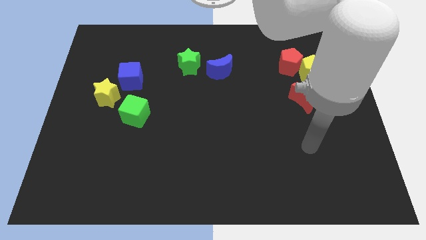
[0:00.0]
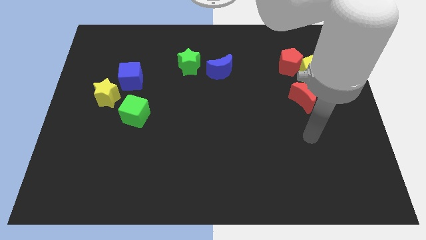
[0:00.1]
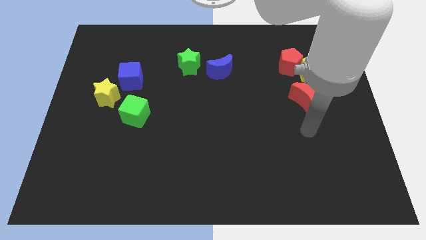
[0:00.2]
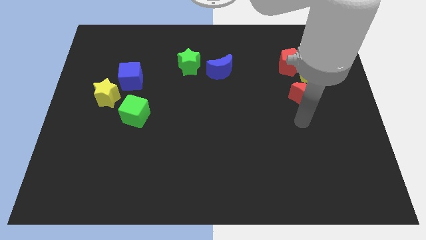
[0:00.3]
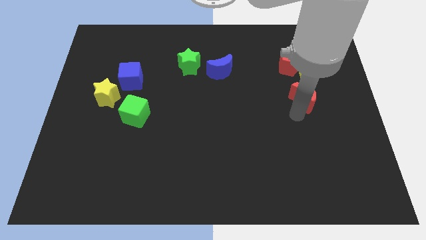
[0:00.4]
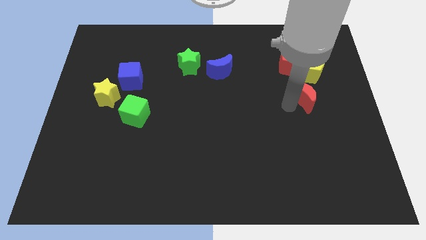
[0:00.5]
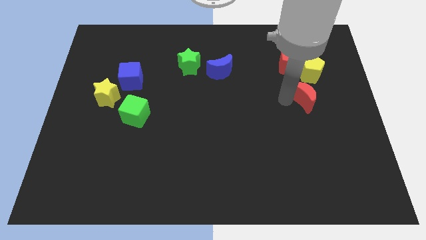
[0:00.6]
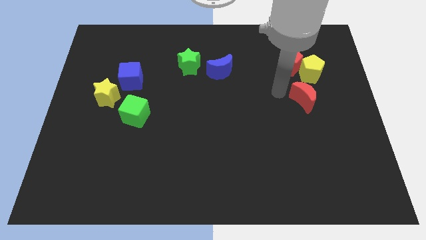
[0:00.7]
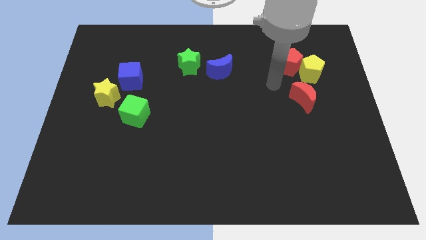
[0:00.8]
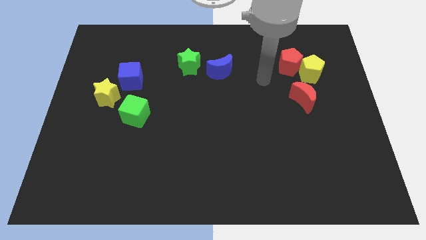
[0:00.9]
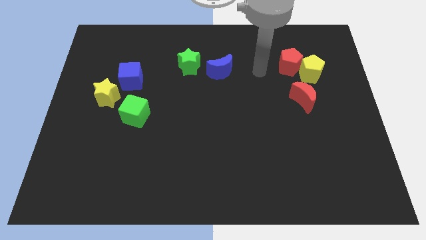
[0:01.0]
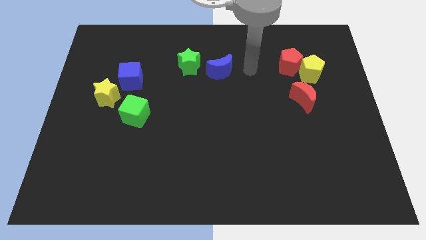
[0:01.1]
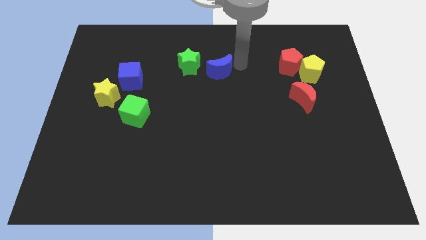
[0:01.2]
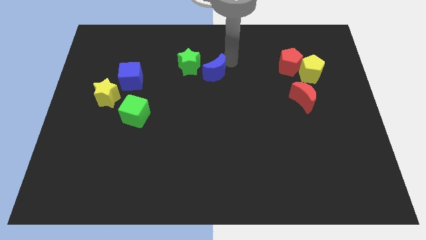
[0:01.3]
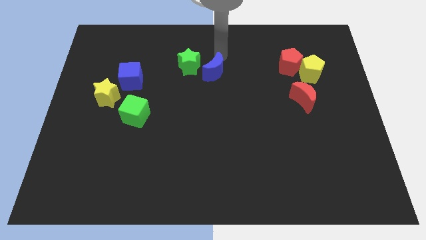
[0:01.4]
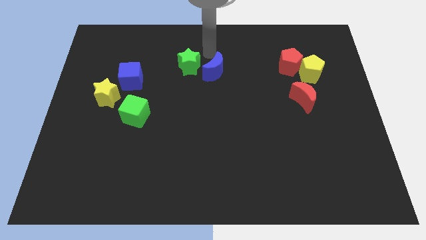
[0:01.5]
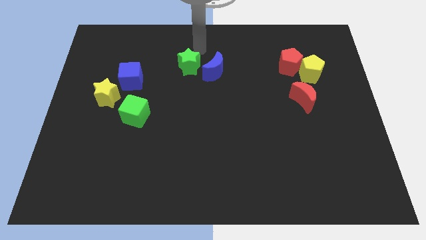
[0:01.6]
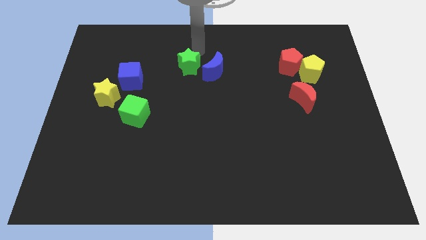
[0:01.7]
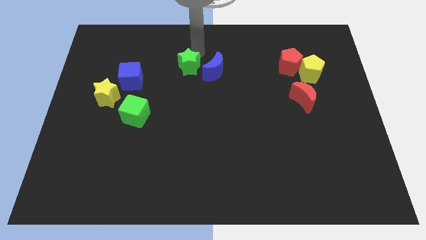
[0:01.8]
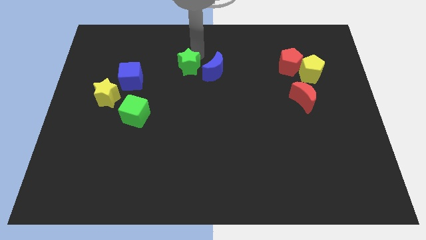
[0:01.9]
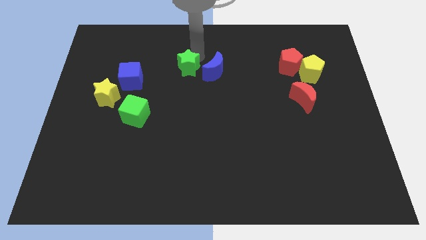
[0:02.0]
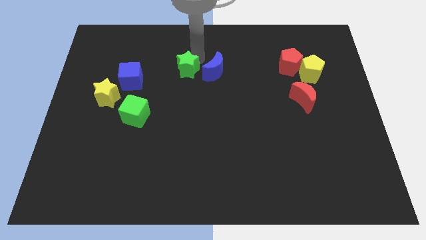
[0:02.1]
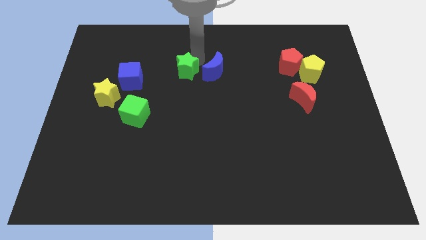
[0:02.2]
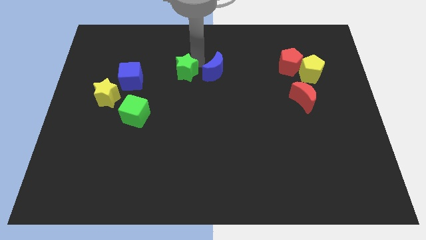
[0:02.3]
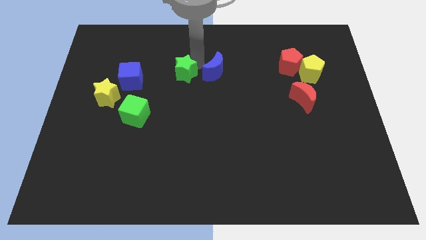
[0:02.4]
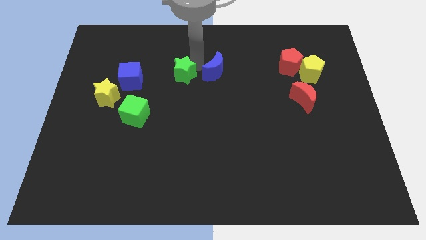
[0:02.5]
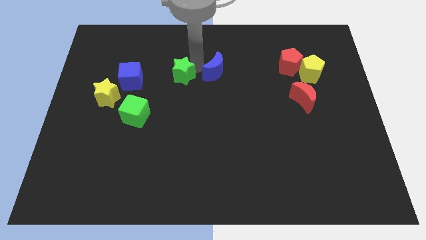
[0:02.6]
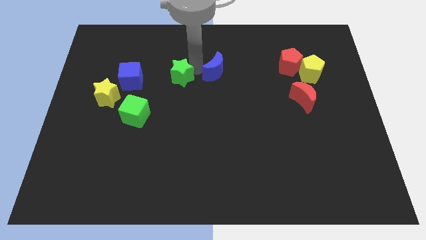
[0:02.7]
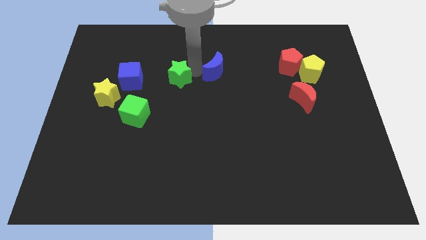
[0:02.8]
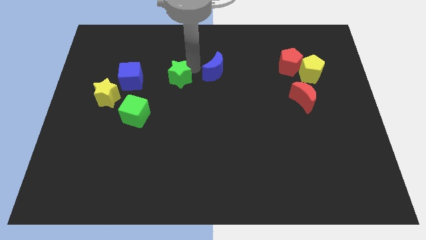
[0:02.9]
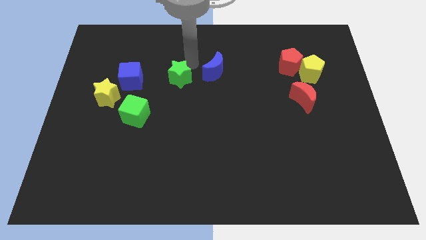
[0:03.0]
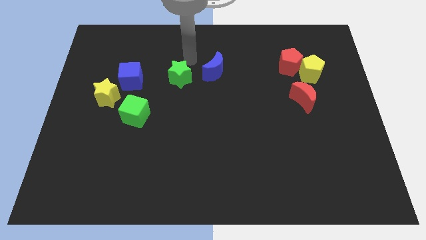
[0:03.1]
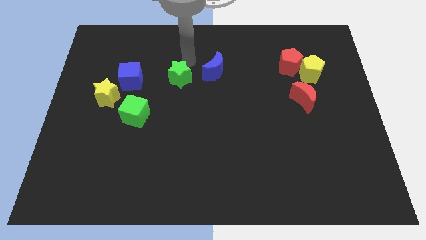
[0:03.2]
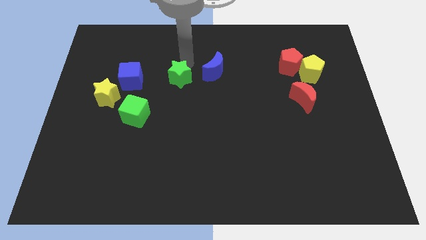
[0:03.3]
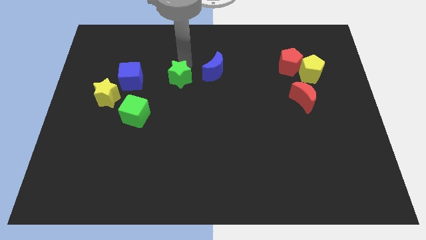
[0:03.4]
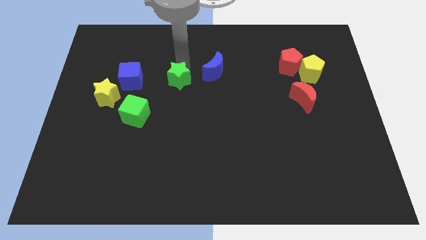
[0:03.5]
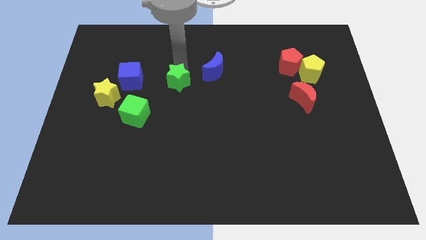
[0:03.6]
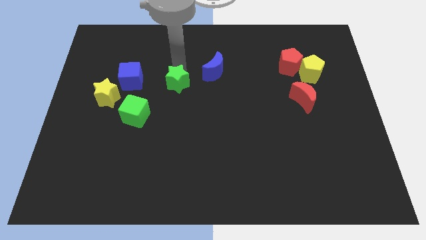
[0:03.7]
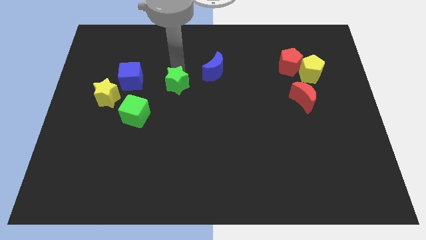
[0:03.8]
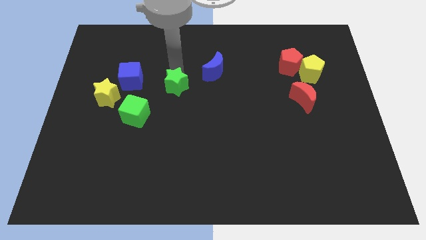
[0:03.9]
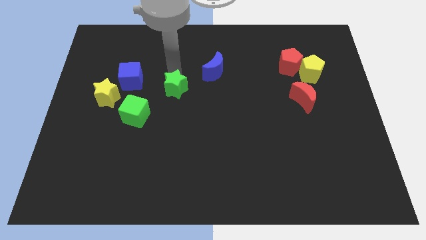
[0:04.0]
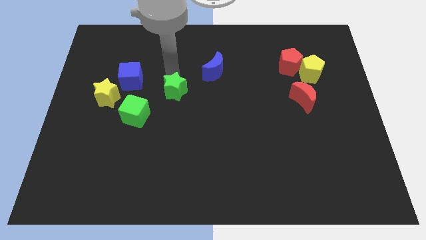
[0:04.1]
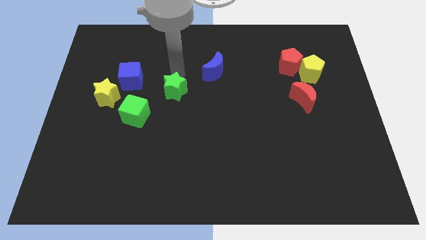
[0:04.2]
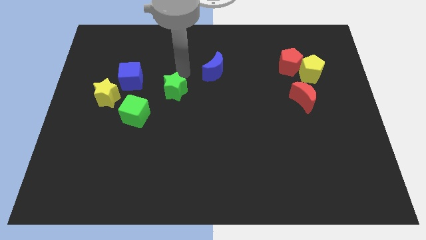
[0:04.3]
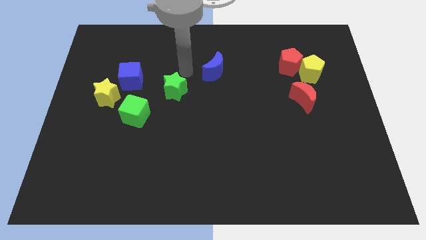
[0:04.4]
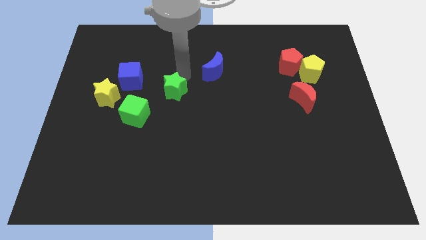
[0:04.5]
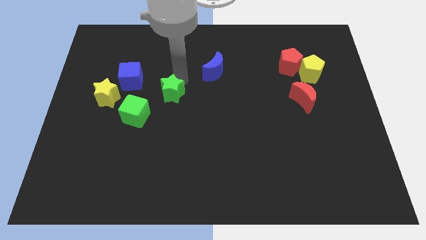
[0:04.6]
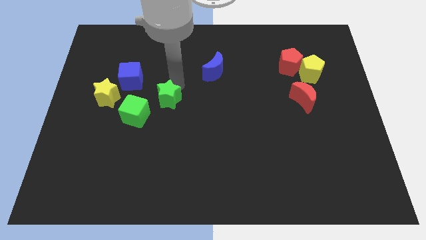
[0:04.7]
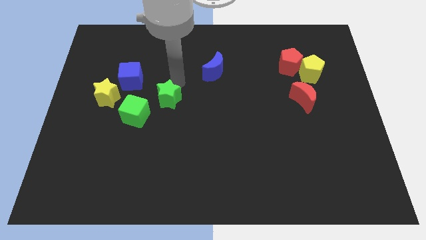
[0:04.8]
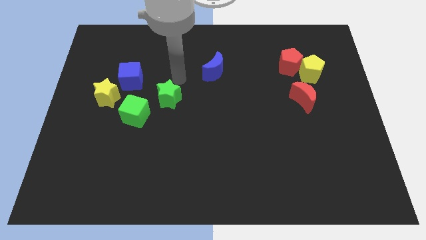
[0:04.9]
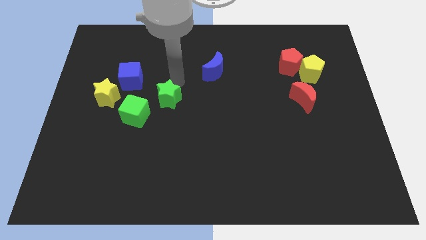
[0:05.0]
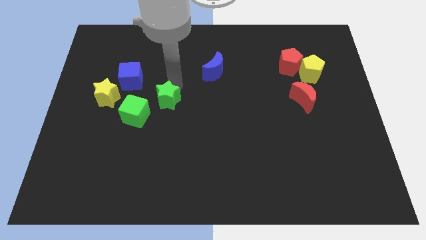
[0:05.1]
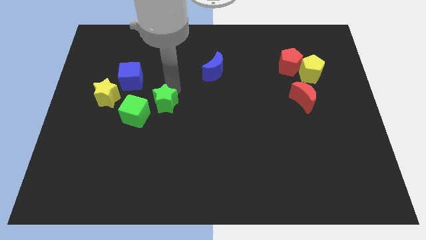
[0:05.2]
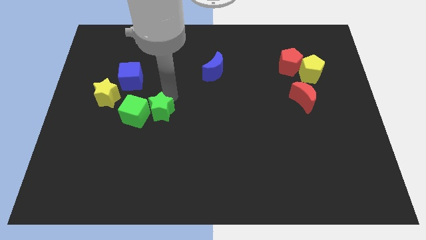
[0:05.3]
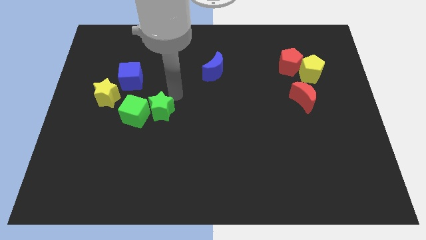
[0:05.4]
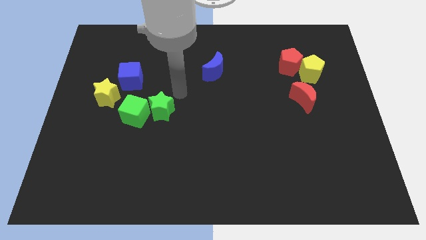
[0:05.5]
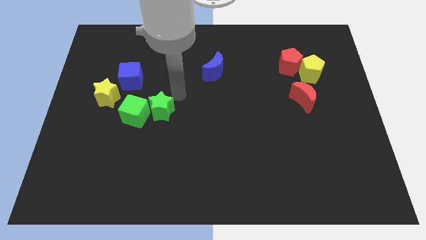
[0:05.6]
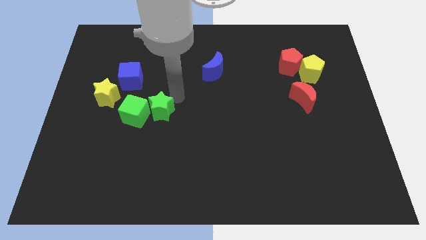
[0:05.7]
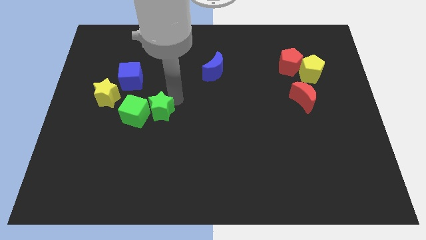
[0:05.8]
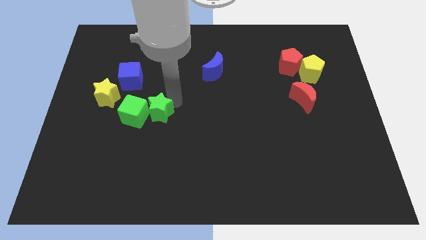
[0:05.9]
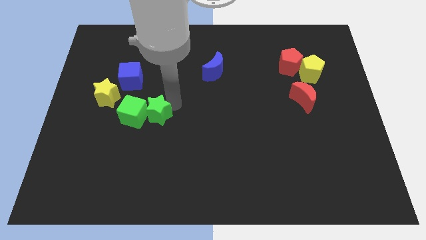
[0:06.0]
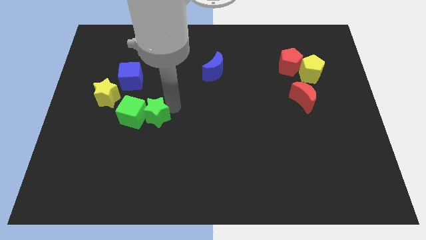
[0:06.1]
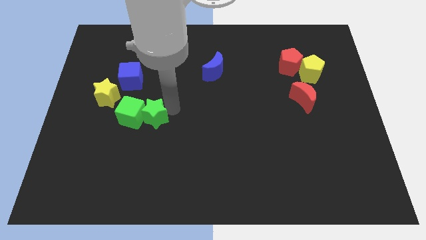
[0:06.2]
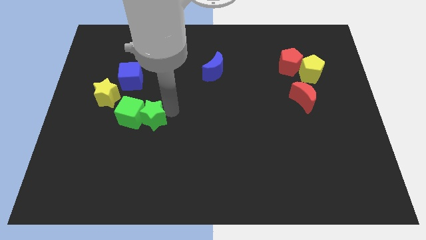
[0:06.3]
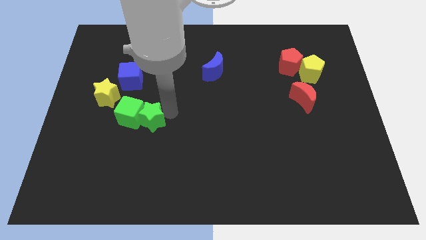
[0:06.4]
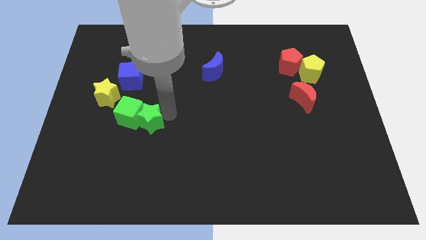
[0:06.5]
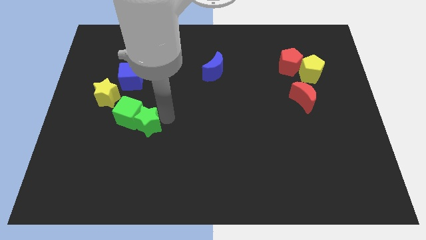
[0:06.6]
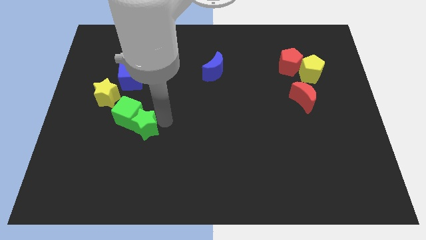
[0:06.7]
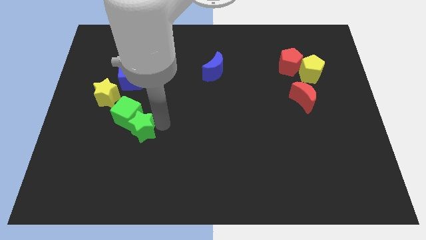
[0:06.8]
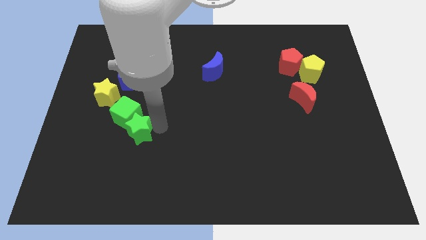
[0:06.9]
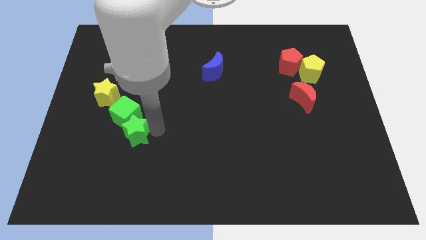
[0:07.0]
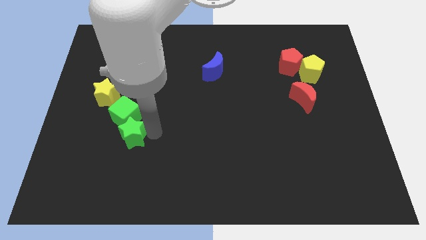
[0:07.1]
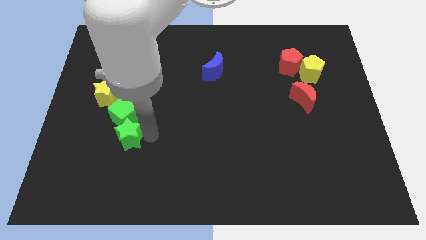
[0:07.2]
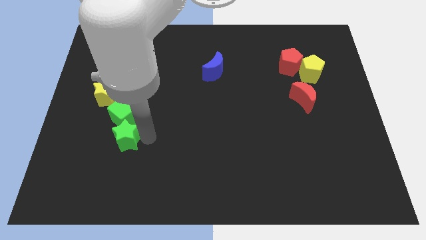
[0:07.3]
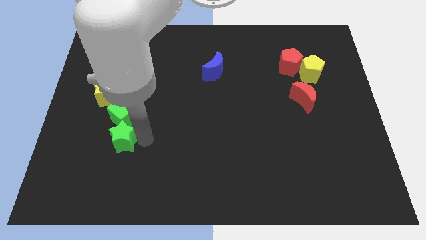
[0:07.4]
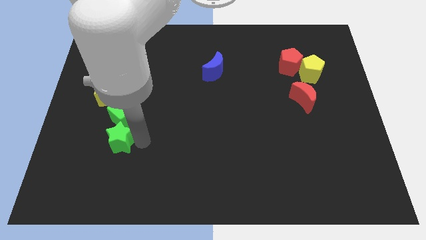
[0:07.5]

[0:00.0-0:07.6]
move the green star diagonally down and to the left of the green cube
